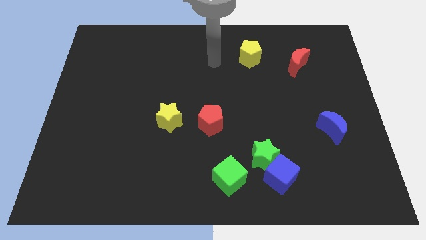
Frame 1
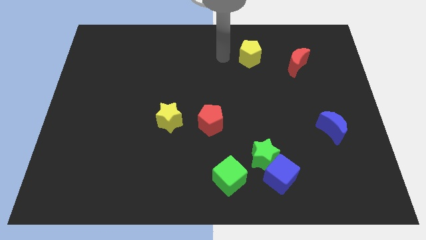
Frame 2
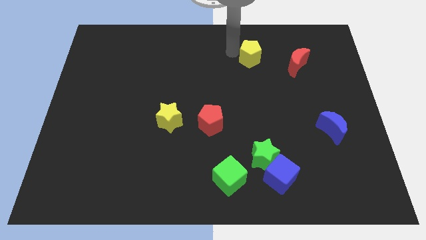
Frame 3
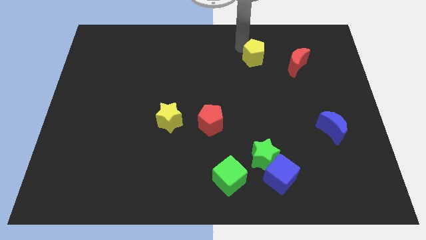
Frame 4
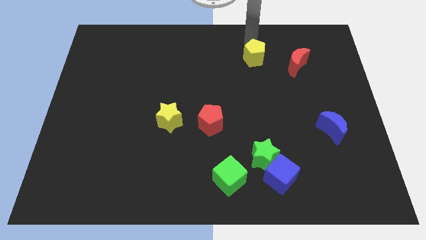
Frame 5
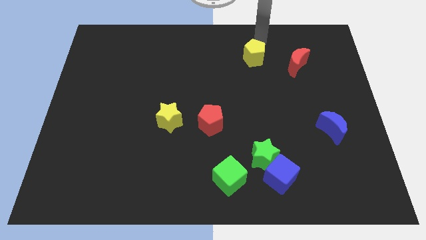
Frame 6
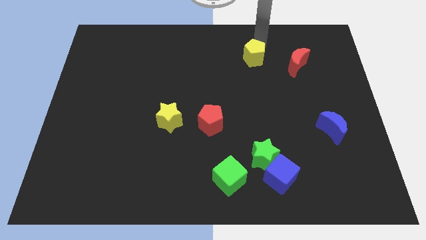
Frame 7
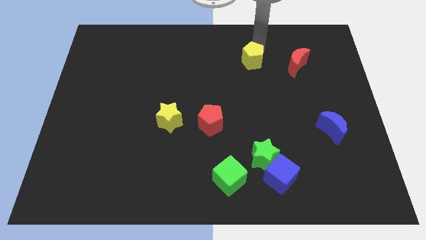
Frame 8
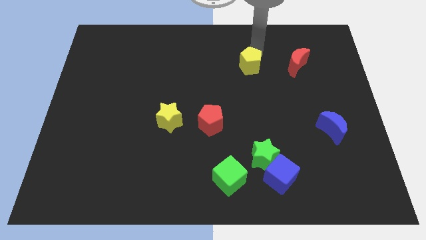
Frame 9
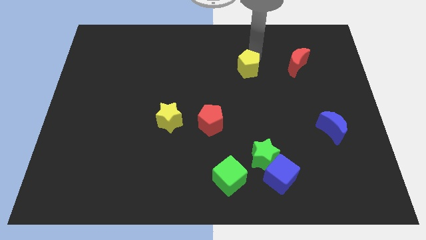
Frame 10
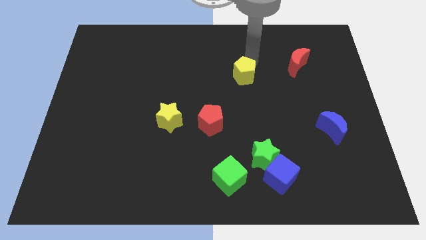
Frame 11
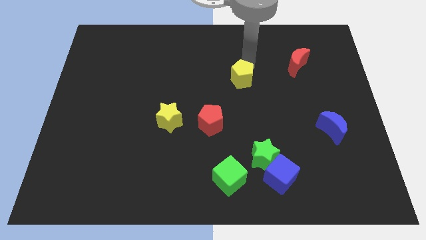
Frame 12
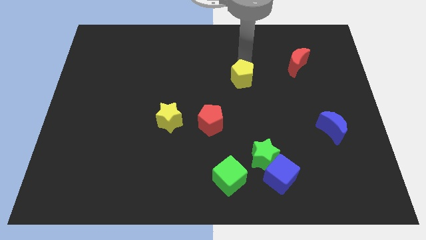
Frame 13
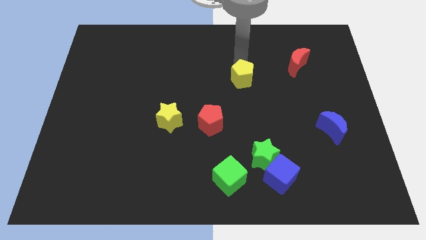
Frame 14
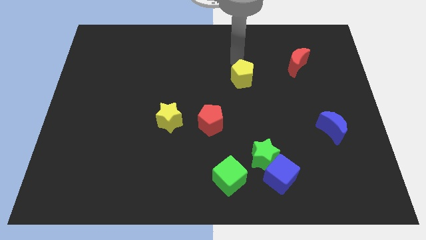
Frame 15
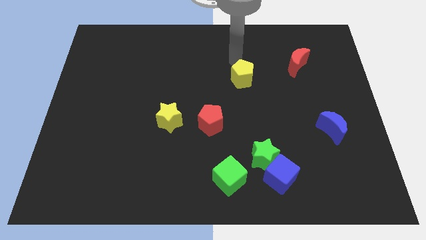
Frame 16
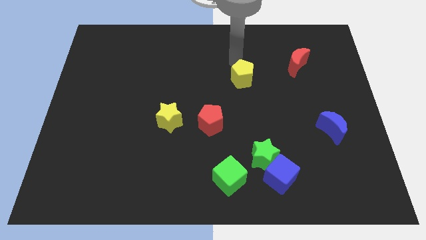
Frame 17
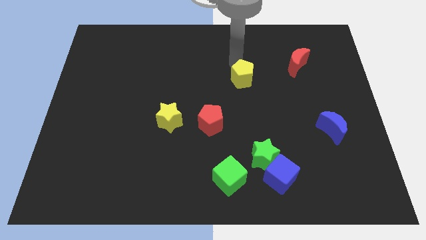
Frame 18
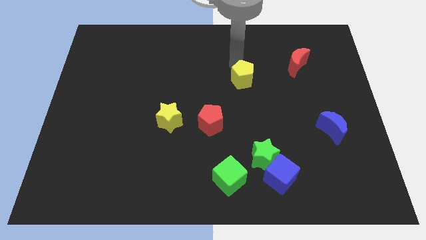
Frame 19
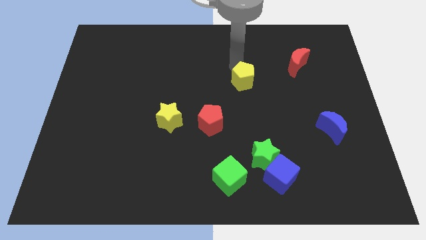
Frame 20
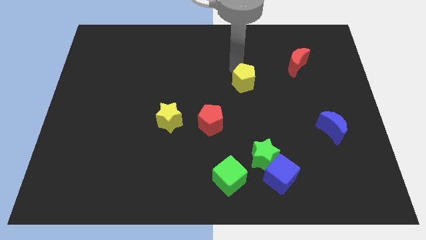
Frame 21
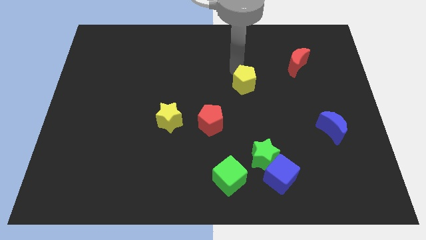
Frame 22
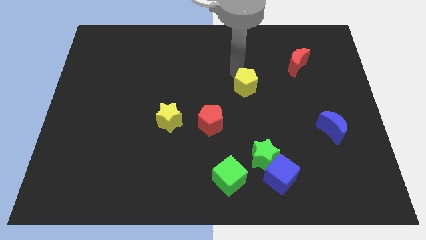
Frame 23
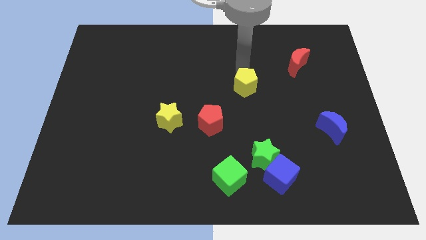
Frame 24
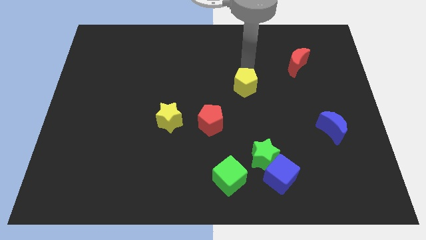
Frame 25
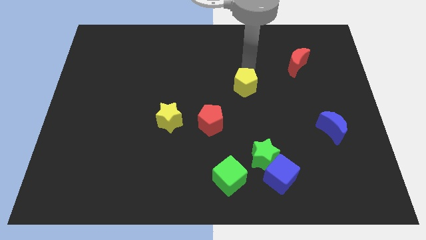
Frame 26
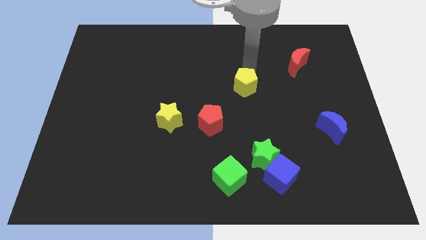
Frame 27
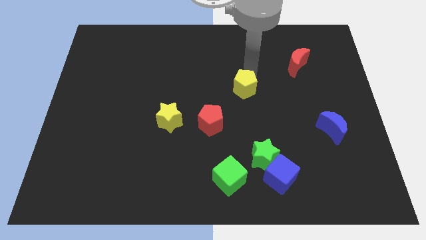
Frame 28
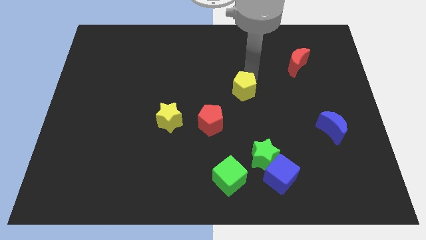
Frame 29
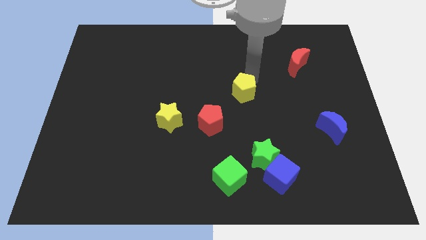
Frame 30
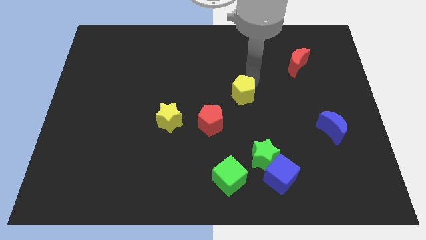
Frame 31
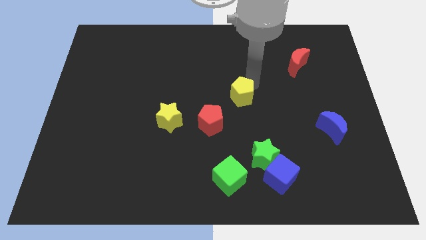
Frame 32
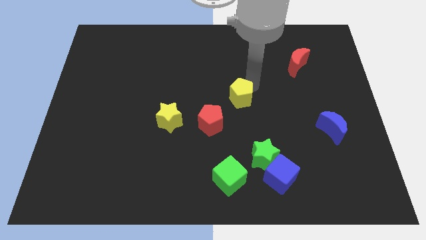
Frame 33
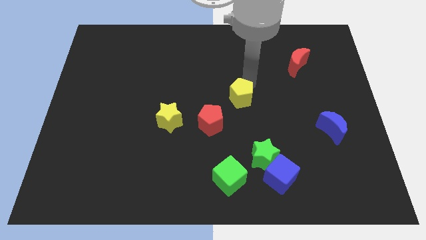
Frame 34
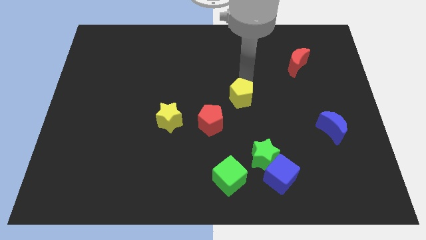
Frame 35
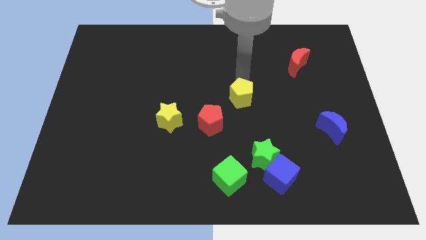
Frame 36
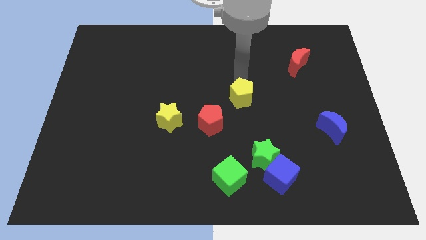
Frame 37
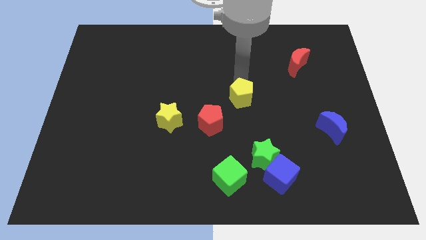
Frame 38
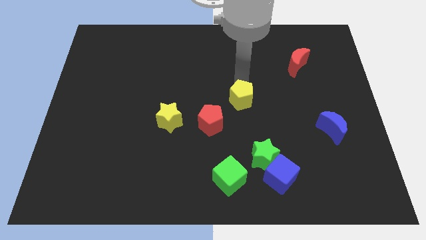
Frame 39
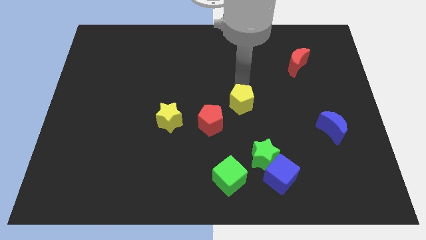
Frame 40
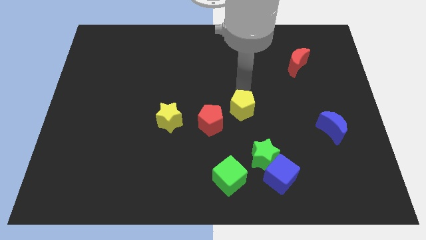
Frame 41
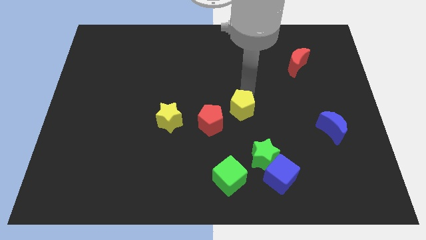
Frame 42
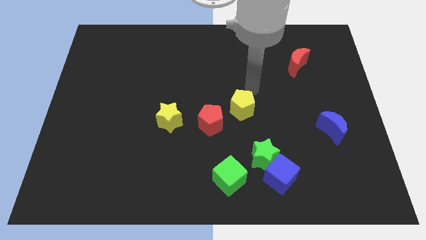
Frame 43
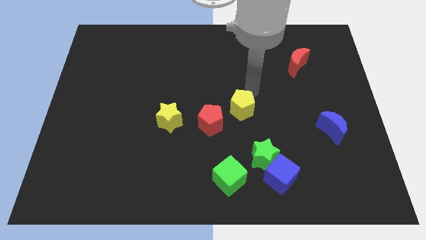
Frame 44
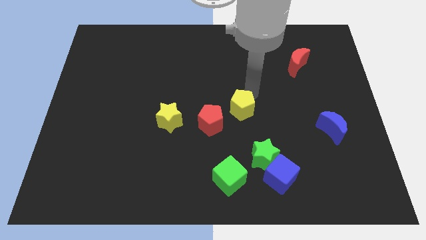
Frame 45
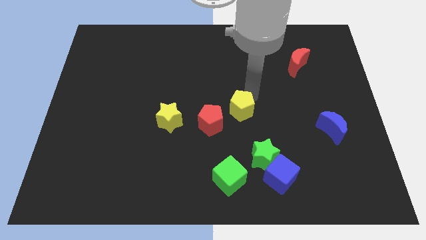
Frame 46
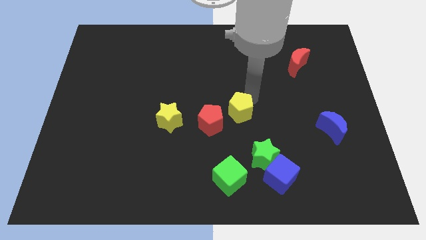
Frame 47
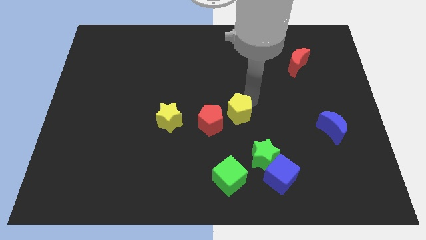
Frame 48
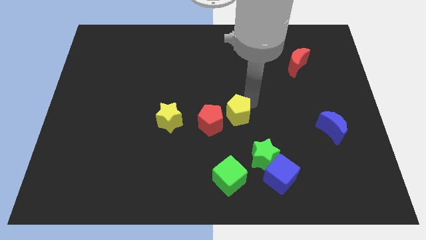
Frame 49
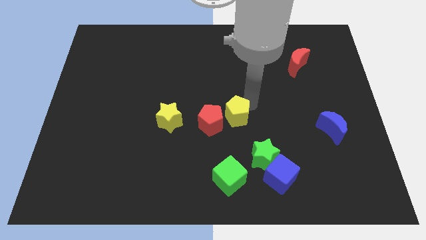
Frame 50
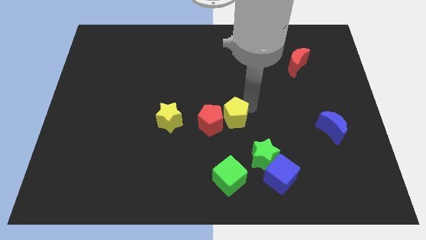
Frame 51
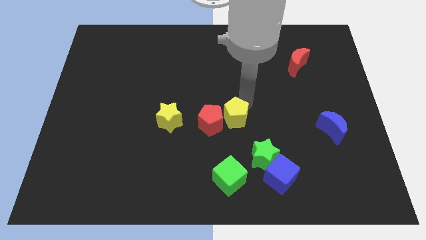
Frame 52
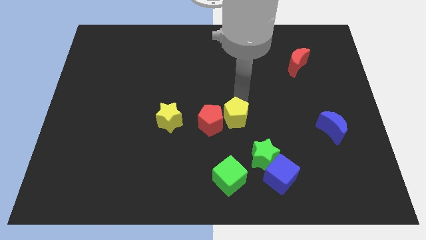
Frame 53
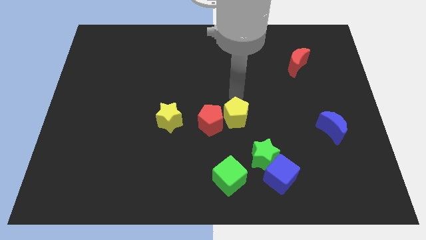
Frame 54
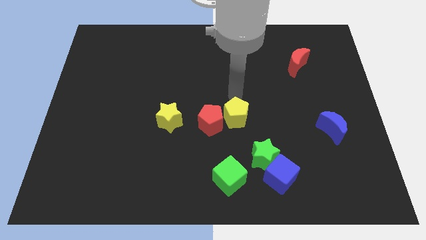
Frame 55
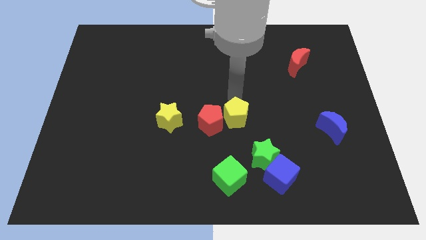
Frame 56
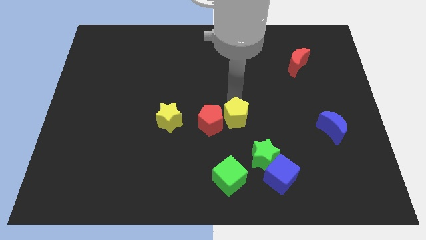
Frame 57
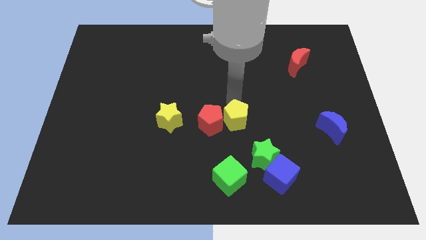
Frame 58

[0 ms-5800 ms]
put the yellow pentagon to the top left side of the green star
